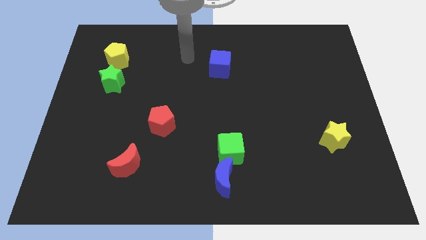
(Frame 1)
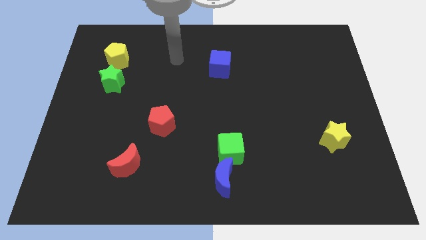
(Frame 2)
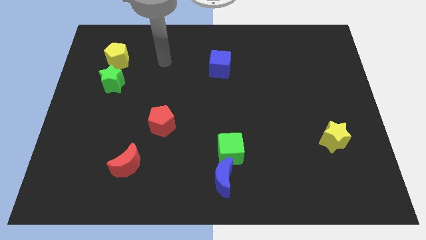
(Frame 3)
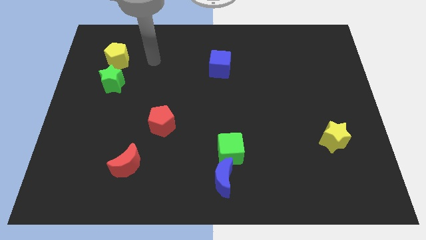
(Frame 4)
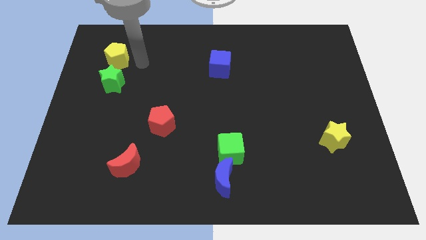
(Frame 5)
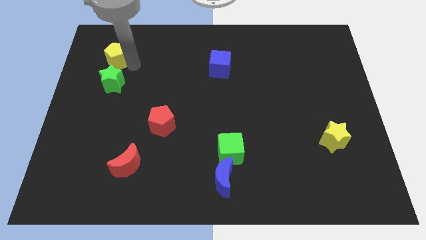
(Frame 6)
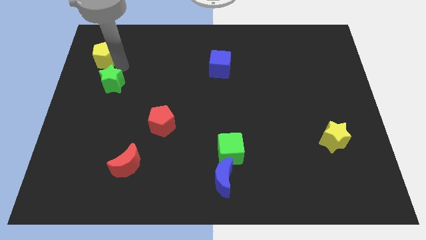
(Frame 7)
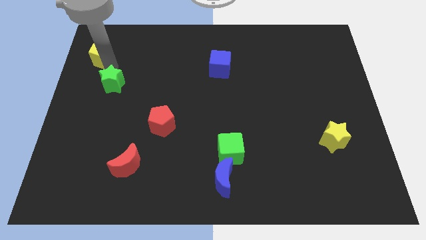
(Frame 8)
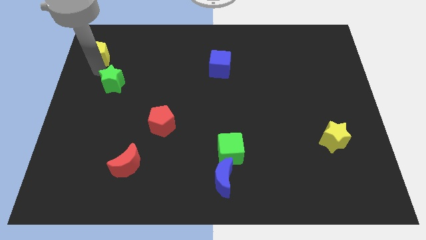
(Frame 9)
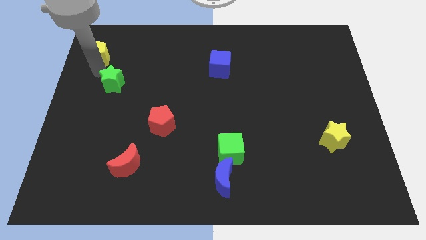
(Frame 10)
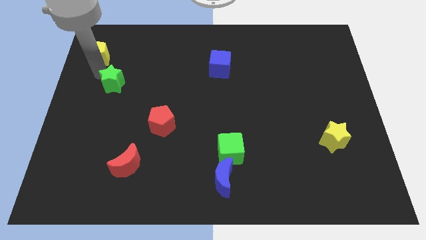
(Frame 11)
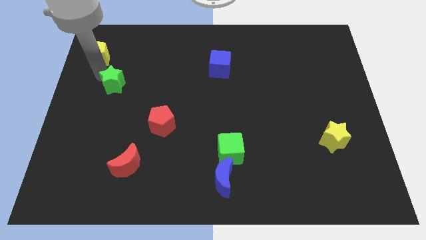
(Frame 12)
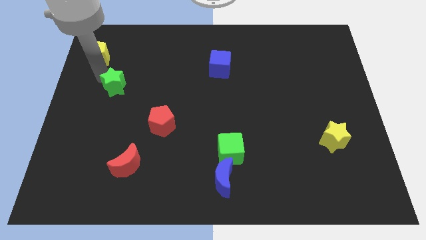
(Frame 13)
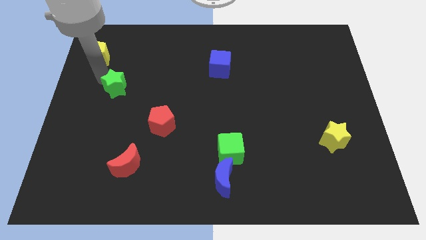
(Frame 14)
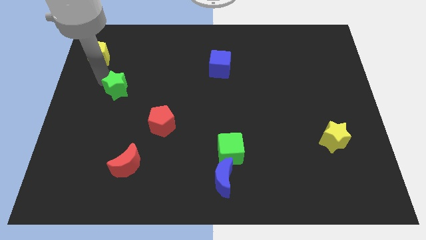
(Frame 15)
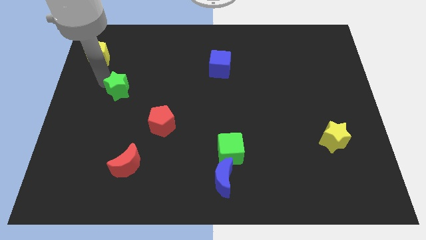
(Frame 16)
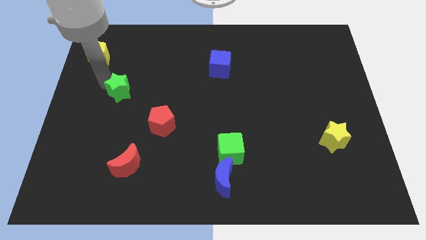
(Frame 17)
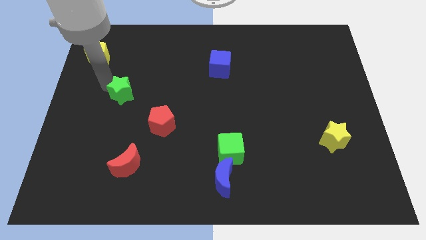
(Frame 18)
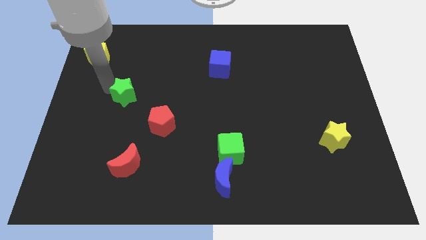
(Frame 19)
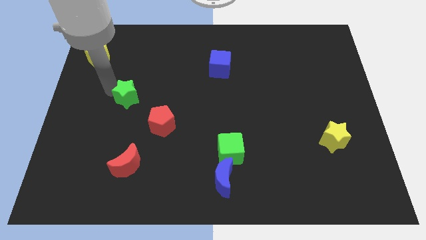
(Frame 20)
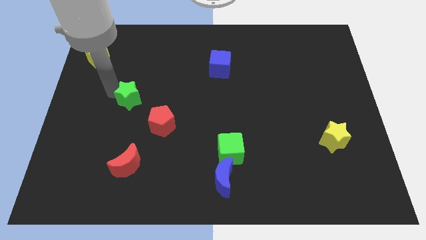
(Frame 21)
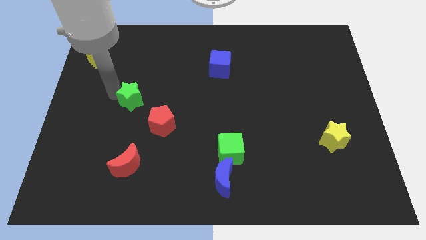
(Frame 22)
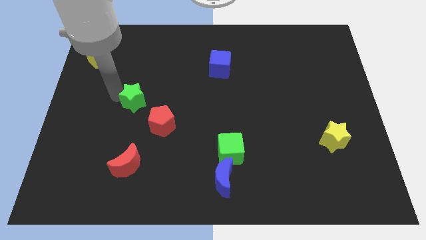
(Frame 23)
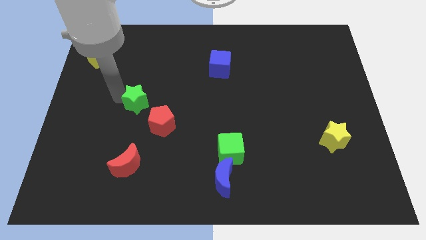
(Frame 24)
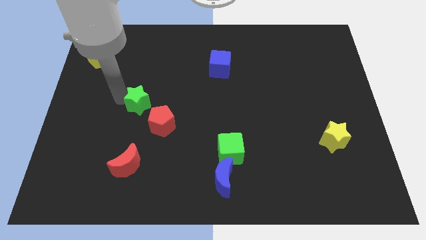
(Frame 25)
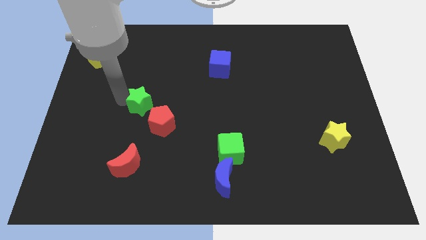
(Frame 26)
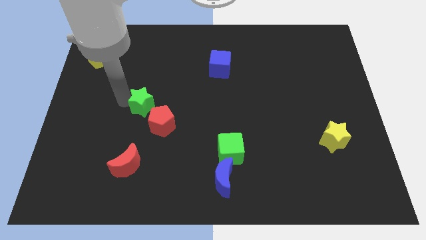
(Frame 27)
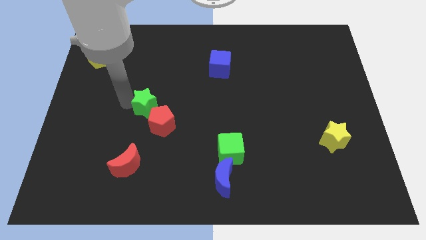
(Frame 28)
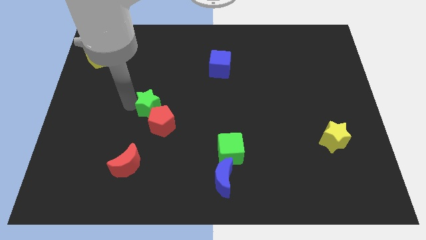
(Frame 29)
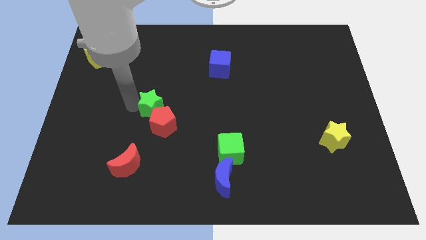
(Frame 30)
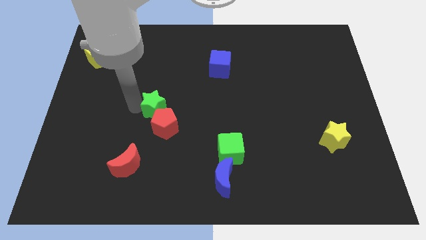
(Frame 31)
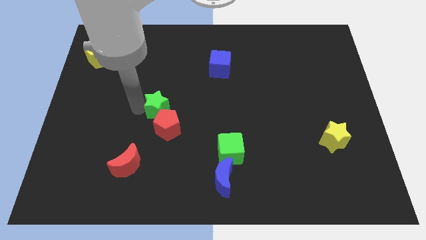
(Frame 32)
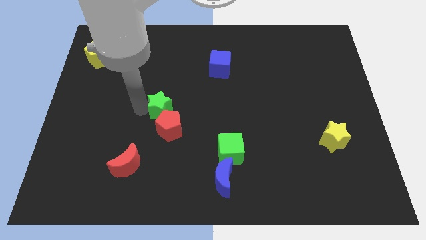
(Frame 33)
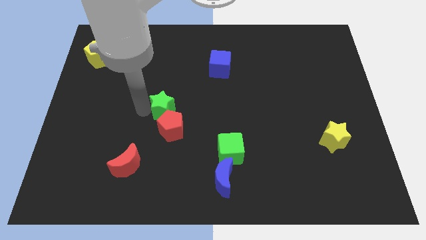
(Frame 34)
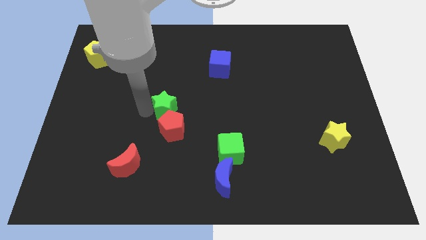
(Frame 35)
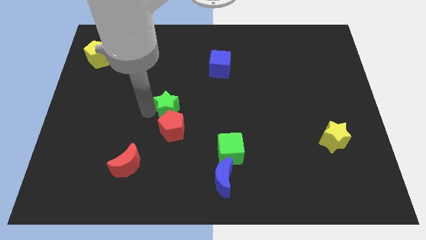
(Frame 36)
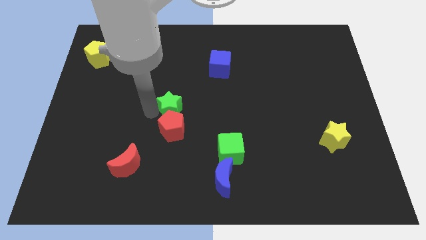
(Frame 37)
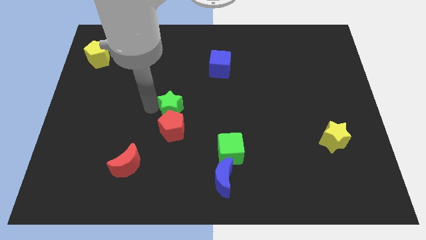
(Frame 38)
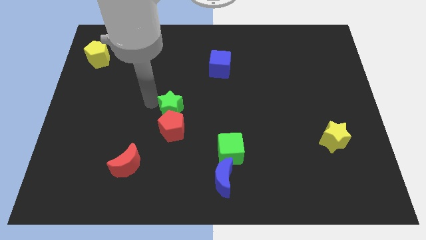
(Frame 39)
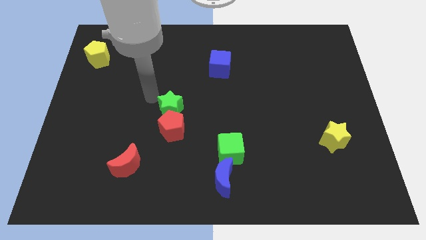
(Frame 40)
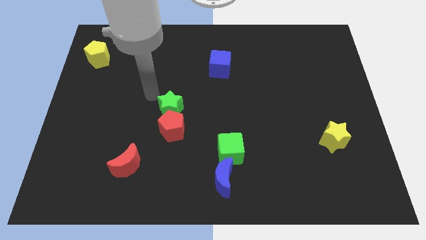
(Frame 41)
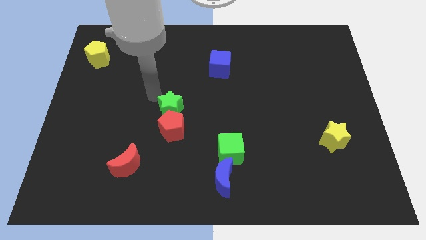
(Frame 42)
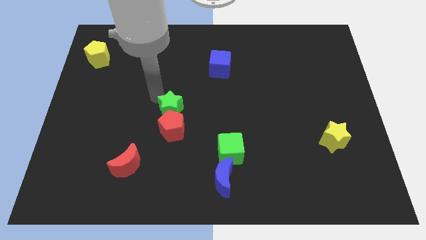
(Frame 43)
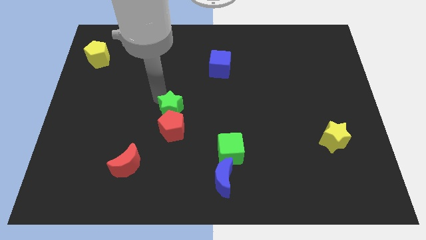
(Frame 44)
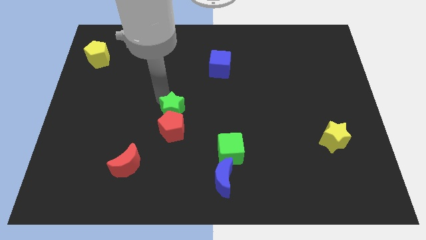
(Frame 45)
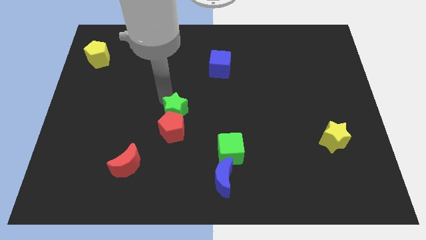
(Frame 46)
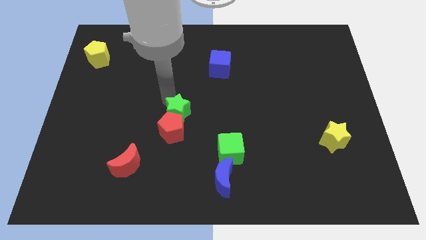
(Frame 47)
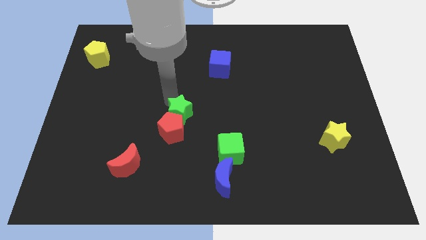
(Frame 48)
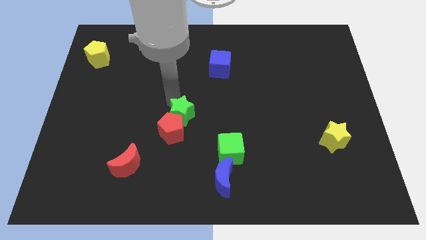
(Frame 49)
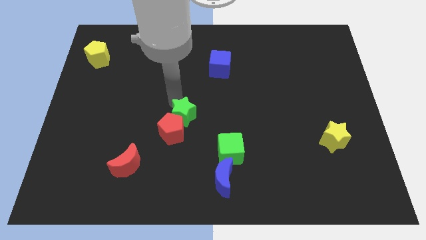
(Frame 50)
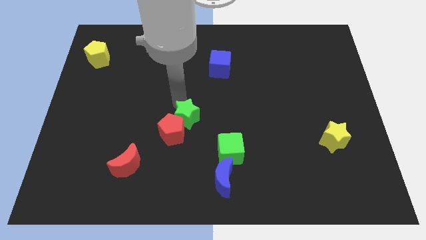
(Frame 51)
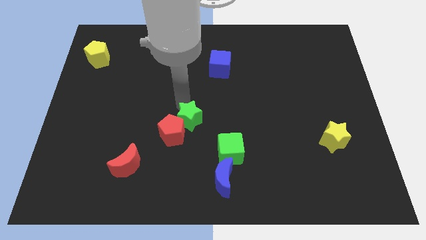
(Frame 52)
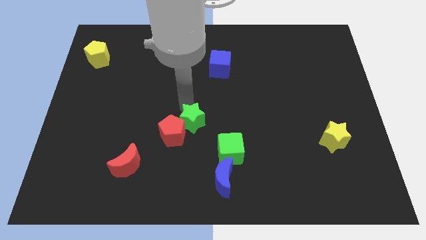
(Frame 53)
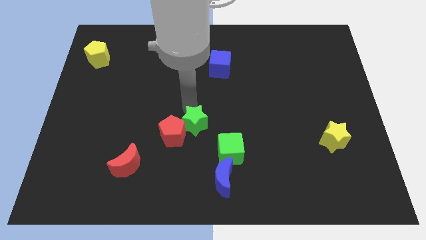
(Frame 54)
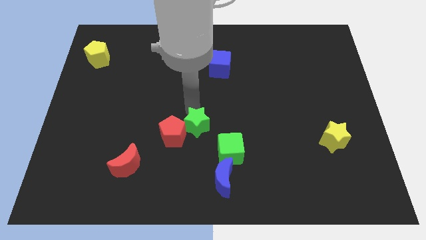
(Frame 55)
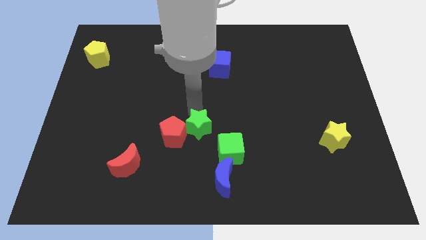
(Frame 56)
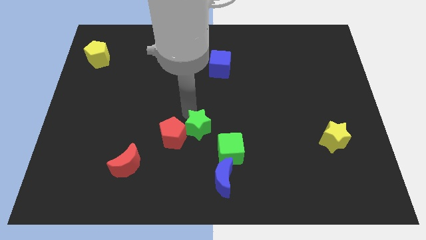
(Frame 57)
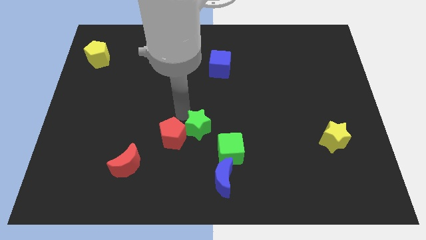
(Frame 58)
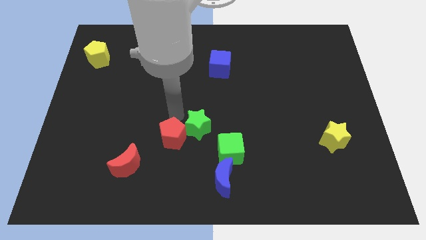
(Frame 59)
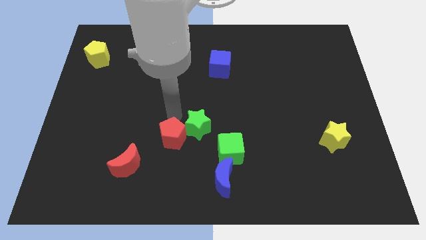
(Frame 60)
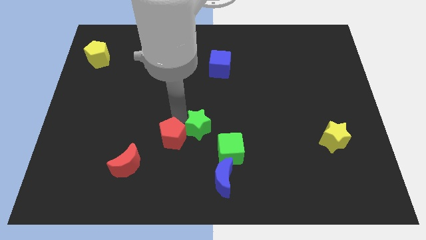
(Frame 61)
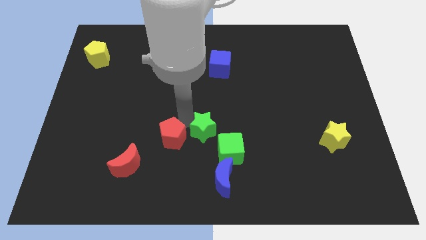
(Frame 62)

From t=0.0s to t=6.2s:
put the green star to the top side of the blue moon
